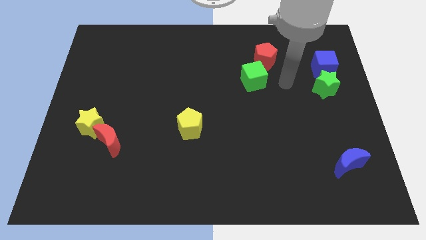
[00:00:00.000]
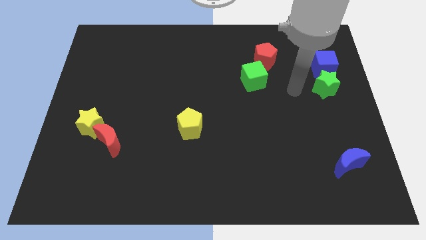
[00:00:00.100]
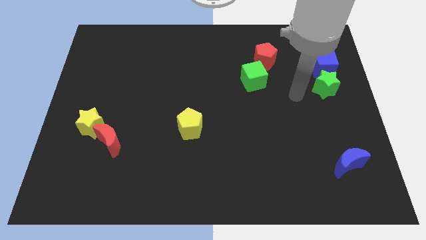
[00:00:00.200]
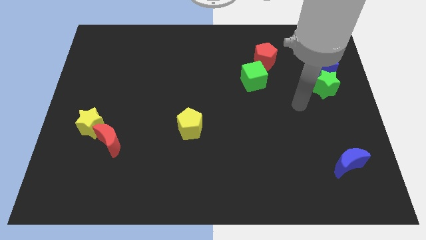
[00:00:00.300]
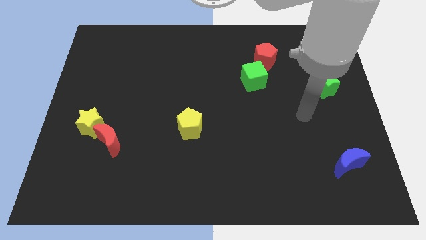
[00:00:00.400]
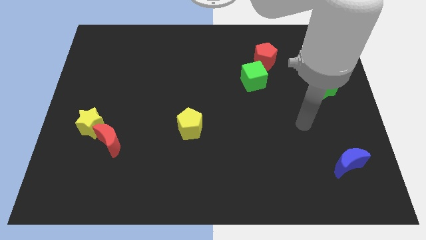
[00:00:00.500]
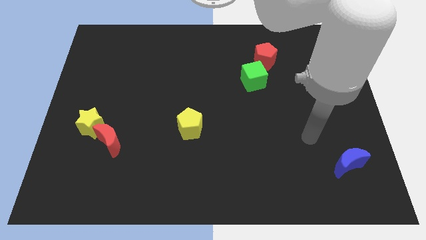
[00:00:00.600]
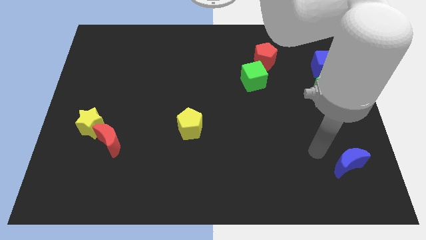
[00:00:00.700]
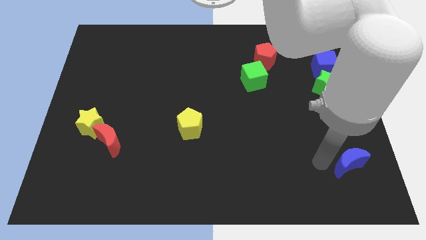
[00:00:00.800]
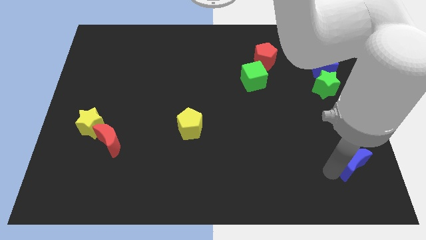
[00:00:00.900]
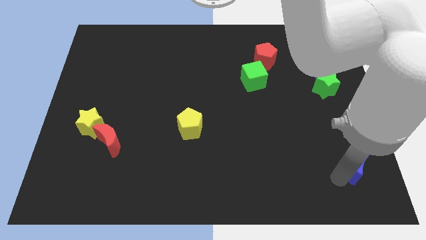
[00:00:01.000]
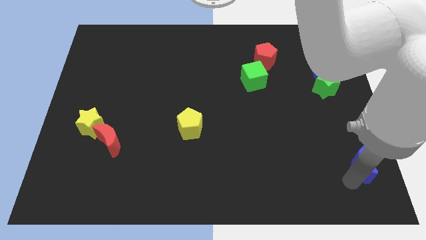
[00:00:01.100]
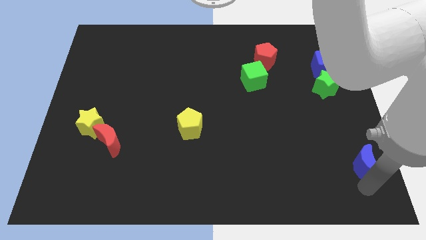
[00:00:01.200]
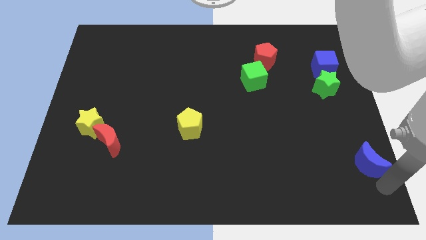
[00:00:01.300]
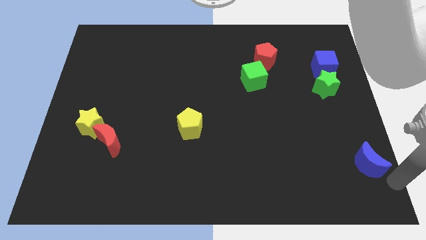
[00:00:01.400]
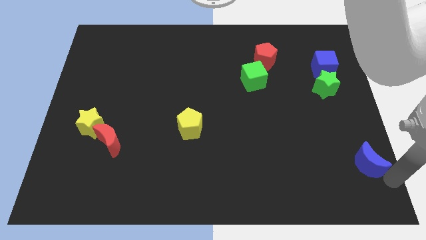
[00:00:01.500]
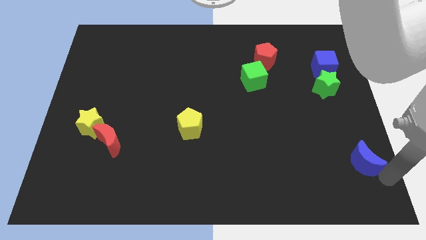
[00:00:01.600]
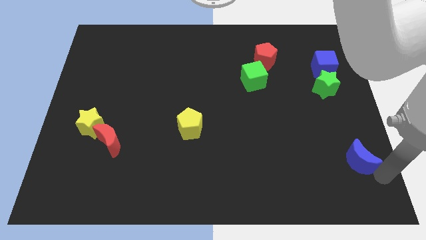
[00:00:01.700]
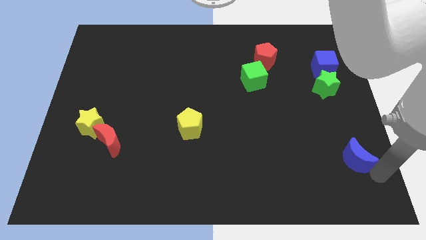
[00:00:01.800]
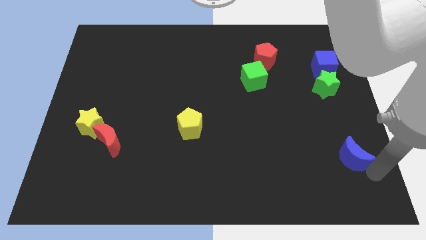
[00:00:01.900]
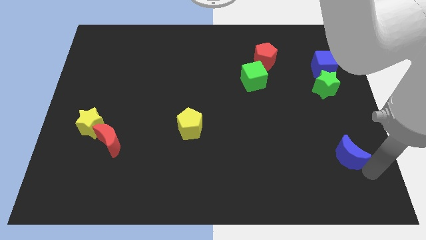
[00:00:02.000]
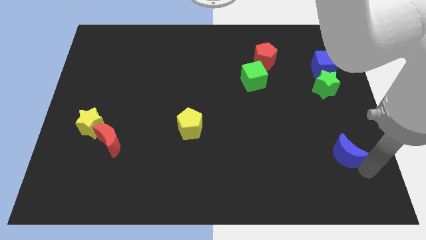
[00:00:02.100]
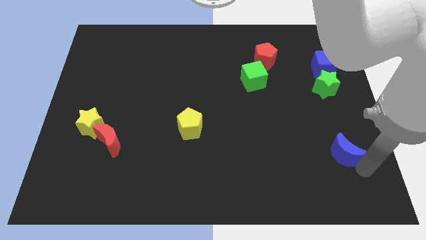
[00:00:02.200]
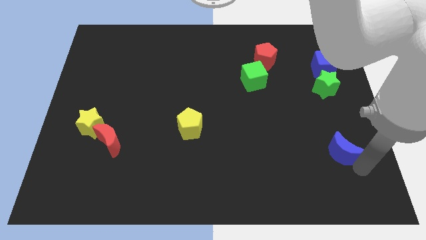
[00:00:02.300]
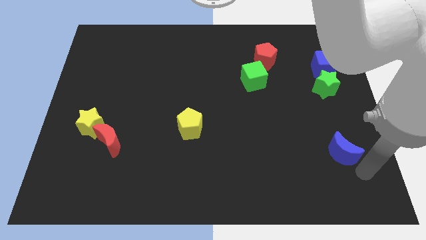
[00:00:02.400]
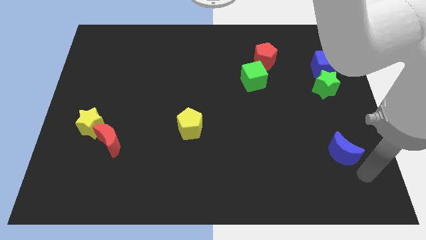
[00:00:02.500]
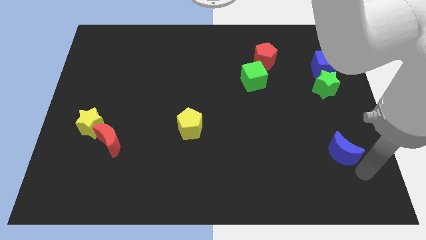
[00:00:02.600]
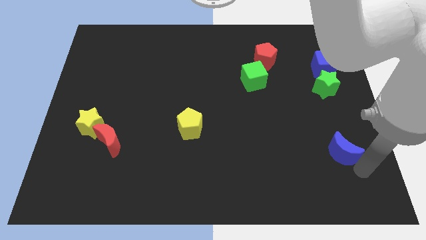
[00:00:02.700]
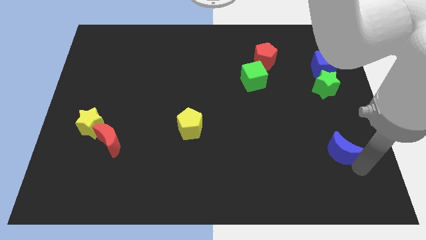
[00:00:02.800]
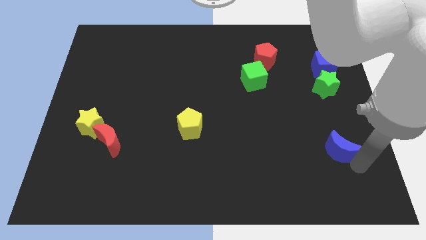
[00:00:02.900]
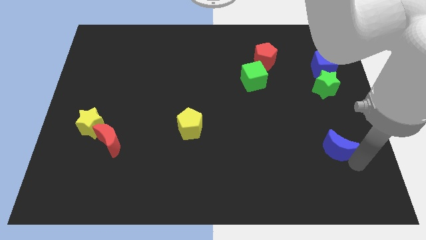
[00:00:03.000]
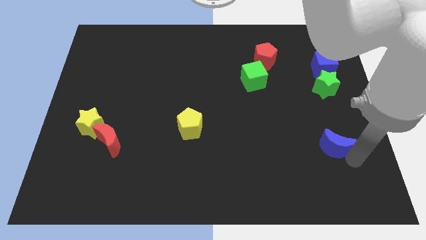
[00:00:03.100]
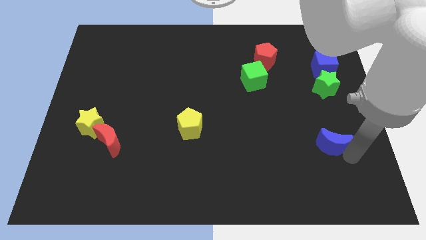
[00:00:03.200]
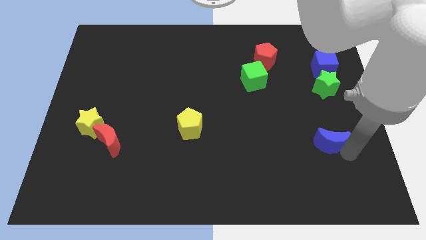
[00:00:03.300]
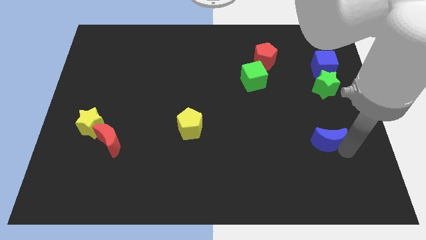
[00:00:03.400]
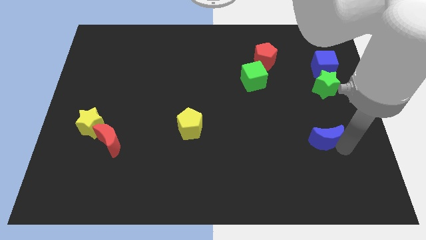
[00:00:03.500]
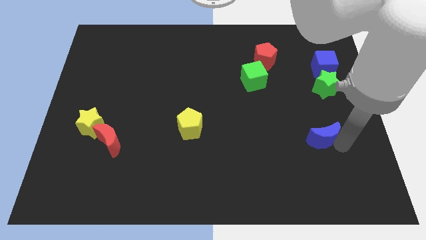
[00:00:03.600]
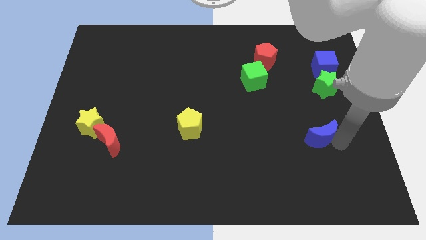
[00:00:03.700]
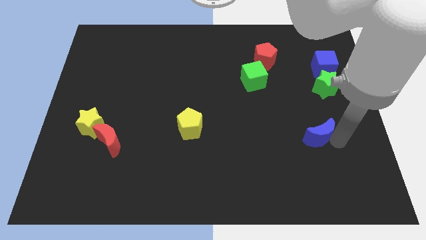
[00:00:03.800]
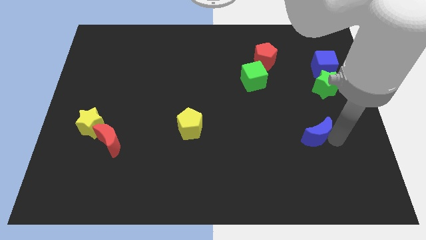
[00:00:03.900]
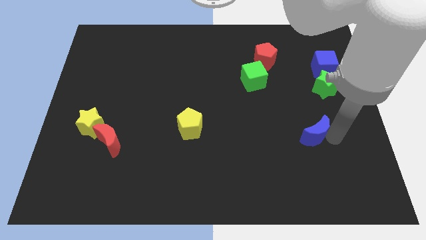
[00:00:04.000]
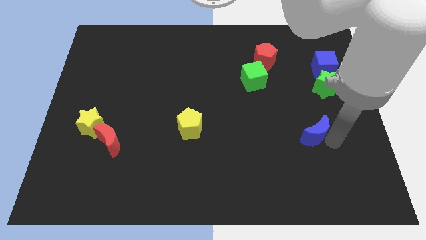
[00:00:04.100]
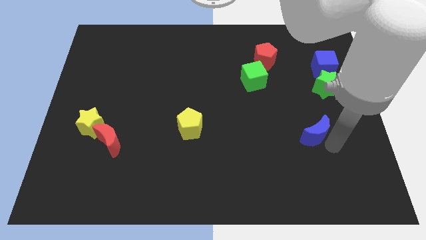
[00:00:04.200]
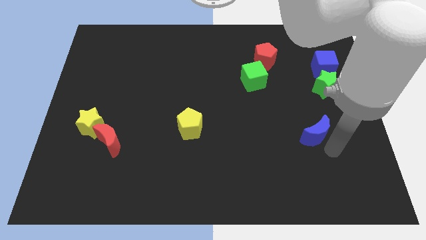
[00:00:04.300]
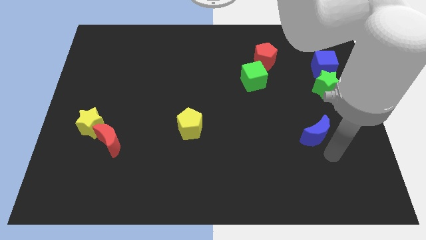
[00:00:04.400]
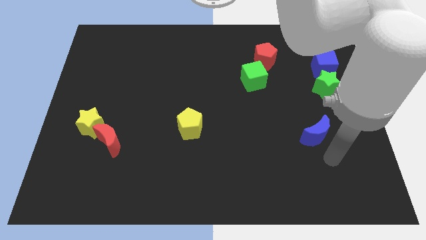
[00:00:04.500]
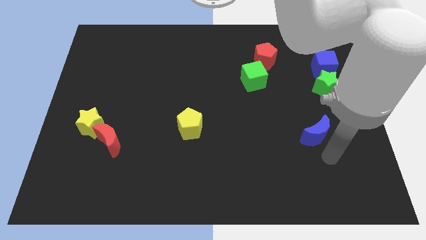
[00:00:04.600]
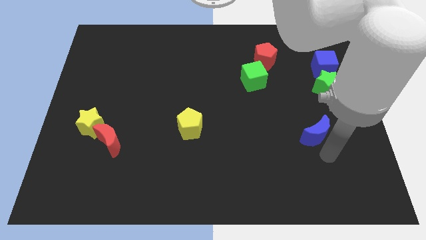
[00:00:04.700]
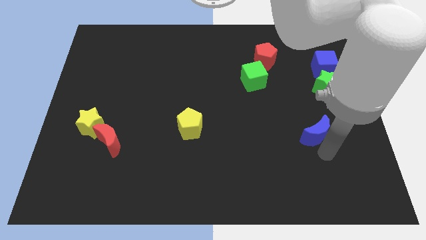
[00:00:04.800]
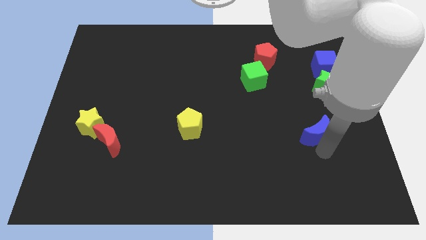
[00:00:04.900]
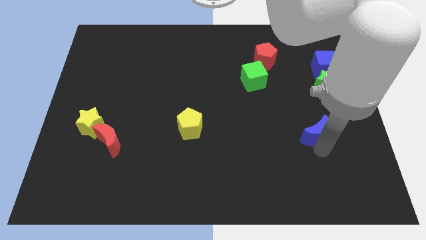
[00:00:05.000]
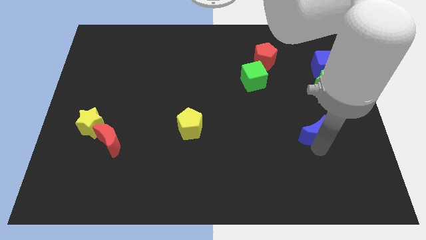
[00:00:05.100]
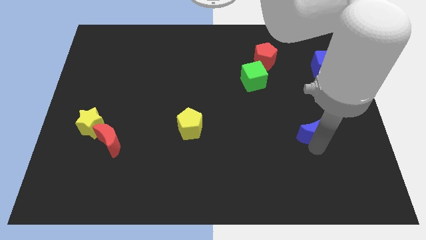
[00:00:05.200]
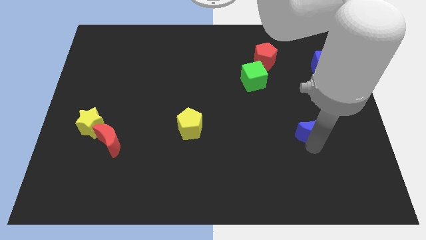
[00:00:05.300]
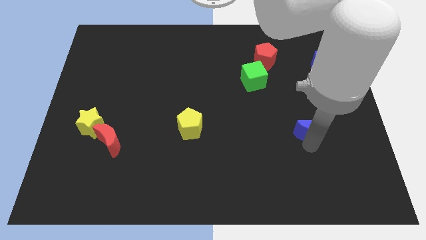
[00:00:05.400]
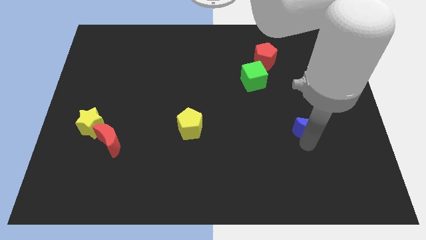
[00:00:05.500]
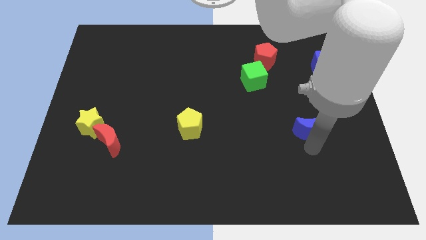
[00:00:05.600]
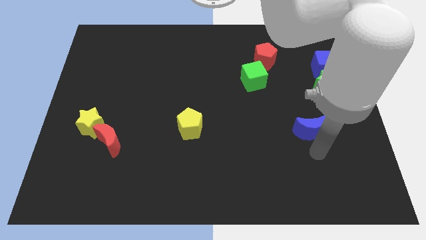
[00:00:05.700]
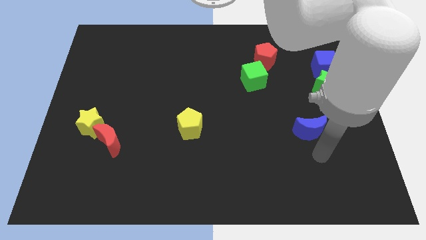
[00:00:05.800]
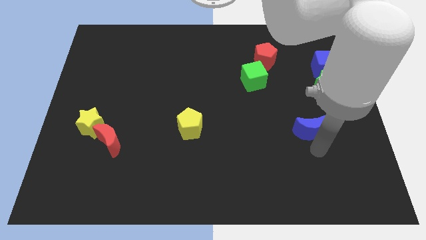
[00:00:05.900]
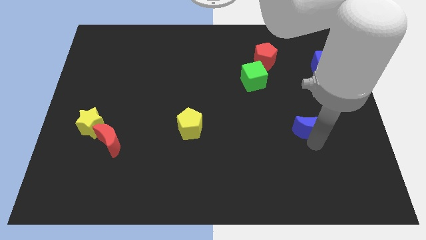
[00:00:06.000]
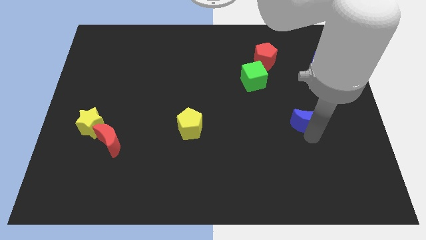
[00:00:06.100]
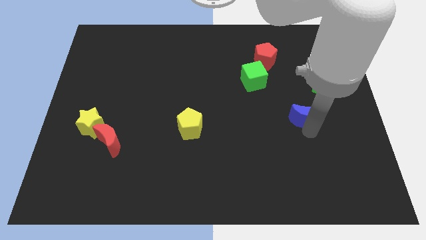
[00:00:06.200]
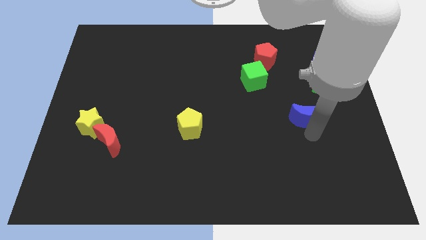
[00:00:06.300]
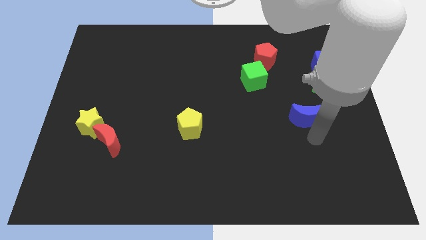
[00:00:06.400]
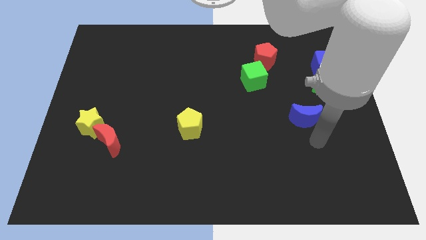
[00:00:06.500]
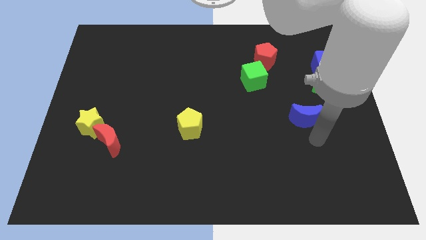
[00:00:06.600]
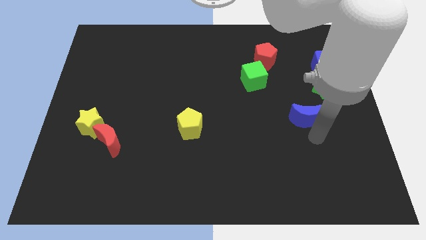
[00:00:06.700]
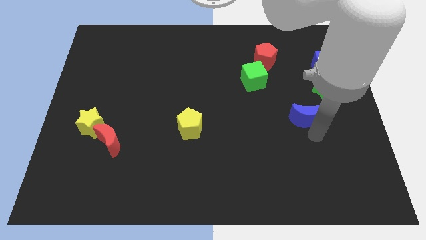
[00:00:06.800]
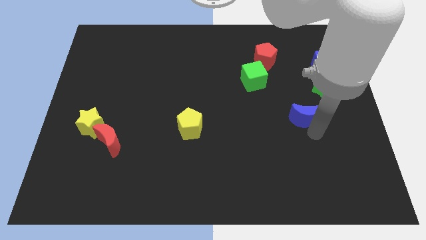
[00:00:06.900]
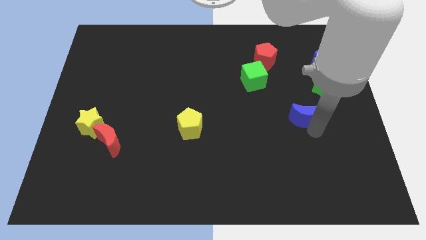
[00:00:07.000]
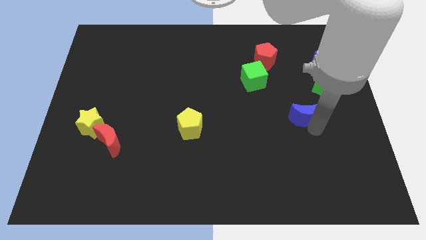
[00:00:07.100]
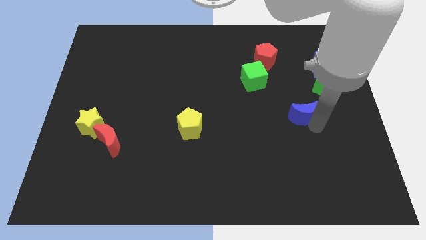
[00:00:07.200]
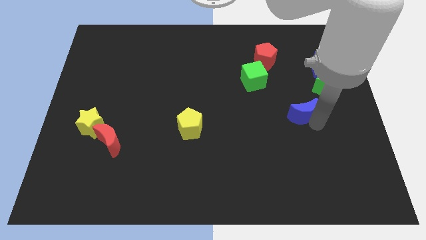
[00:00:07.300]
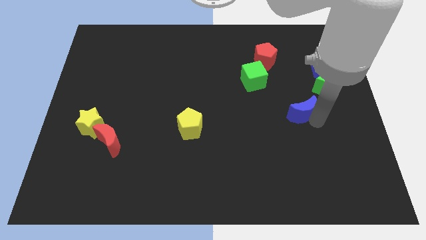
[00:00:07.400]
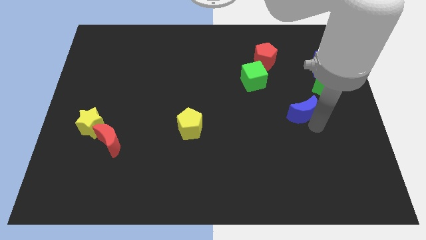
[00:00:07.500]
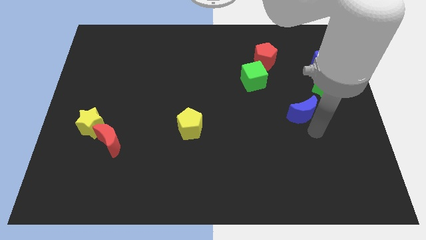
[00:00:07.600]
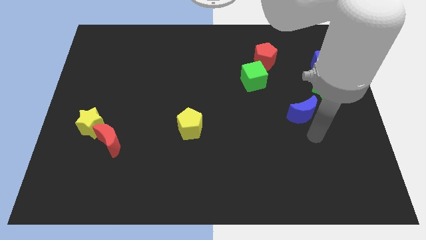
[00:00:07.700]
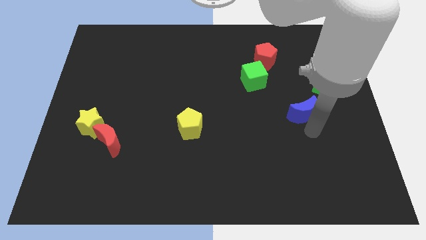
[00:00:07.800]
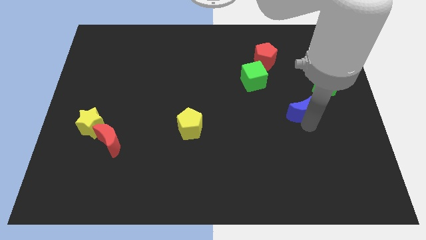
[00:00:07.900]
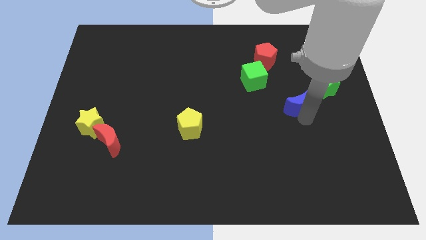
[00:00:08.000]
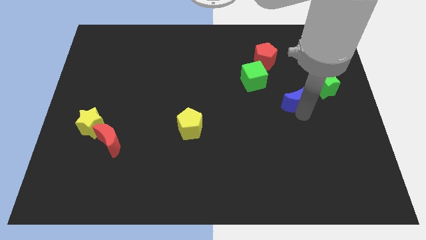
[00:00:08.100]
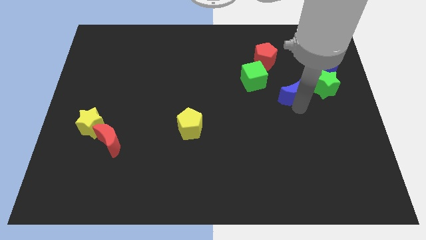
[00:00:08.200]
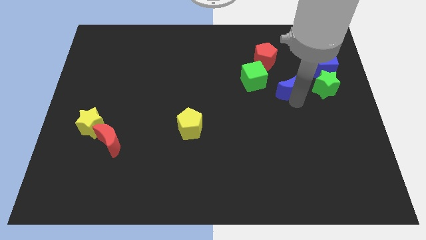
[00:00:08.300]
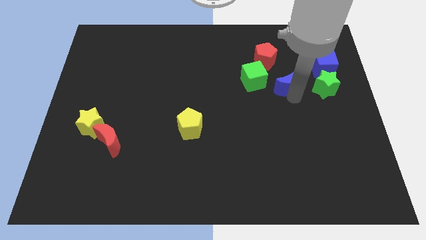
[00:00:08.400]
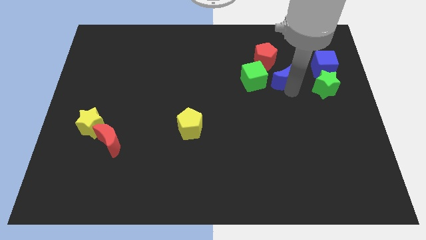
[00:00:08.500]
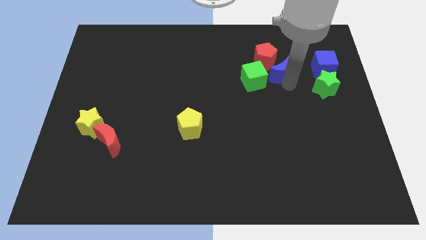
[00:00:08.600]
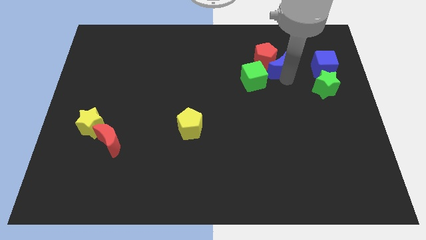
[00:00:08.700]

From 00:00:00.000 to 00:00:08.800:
push the blue moon next to the red pentagon

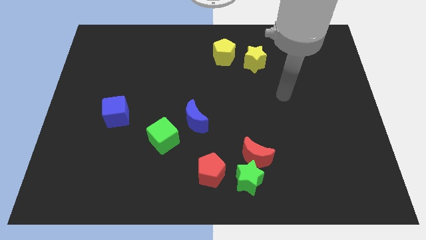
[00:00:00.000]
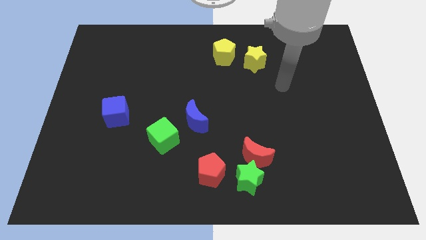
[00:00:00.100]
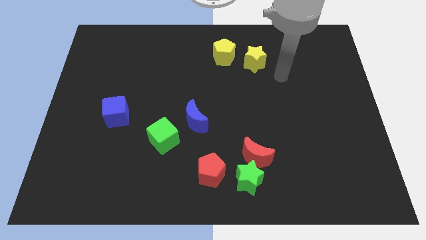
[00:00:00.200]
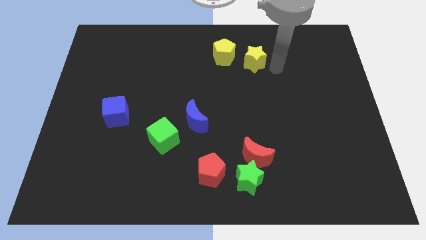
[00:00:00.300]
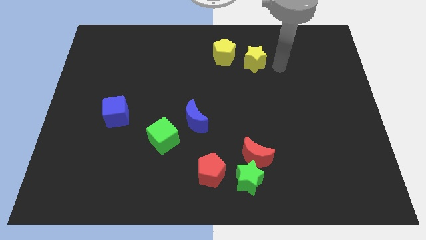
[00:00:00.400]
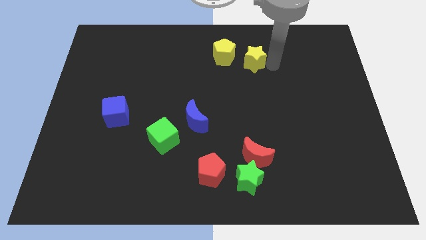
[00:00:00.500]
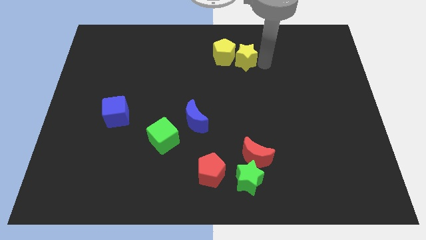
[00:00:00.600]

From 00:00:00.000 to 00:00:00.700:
push the yellow star towards the yellow pentagon
